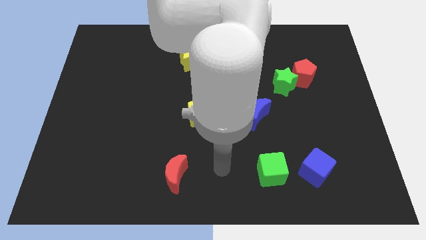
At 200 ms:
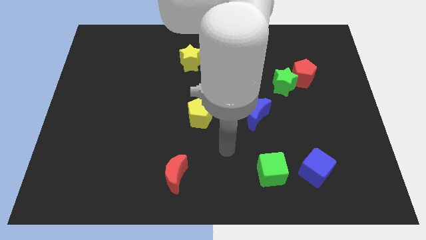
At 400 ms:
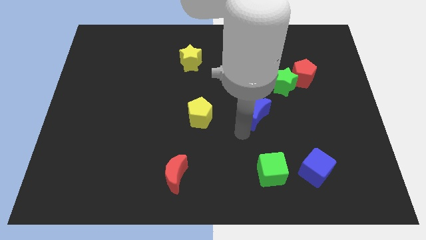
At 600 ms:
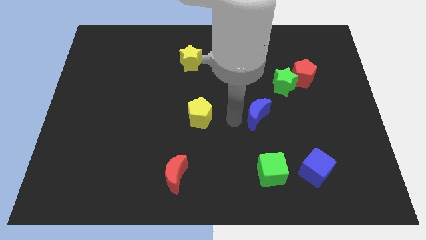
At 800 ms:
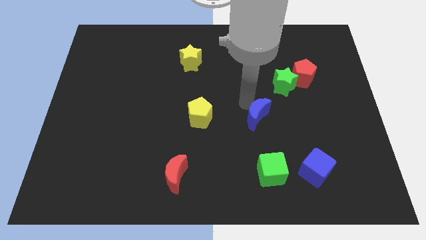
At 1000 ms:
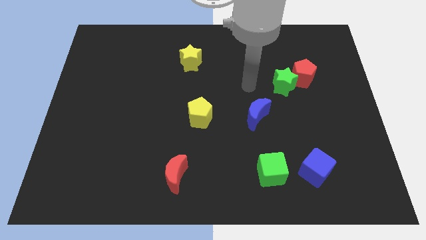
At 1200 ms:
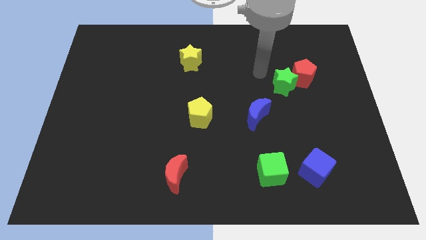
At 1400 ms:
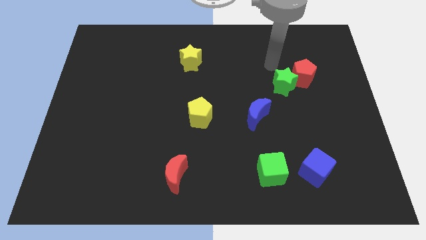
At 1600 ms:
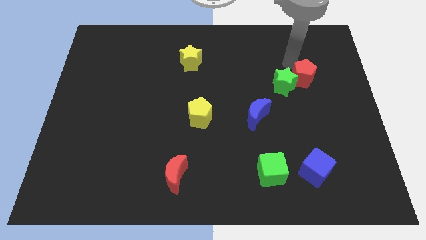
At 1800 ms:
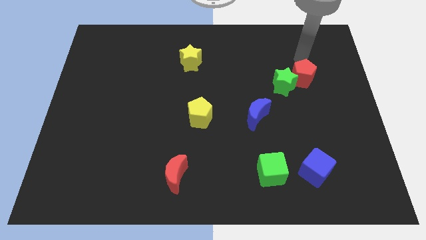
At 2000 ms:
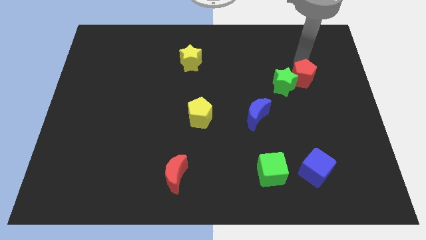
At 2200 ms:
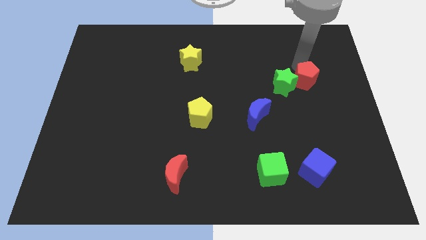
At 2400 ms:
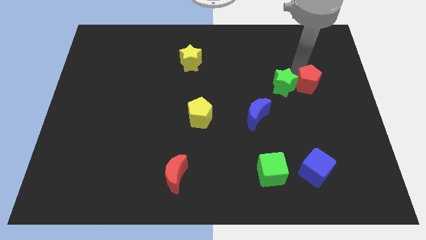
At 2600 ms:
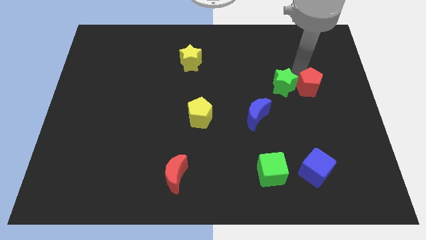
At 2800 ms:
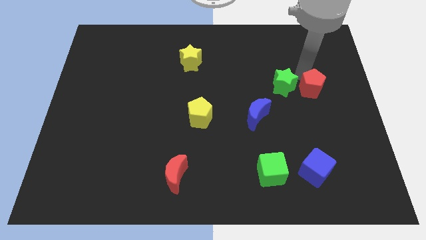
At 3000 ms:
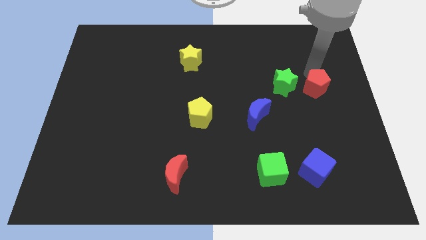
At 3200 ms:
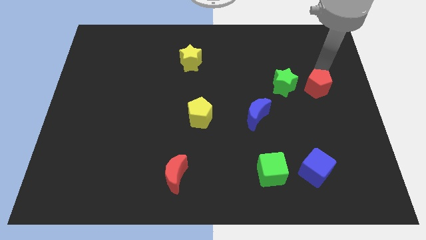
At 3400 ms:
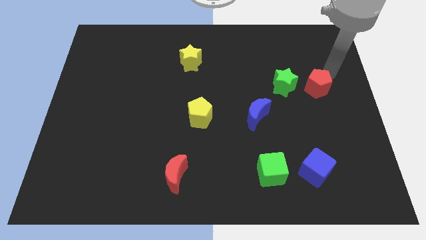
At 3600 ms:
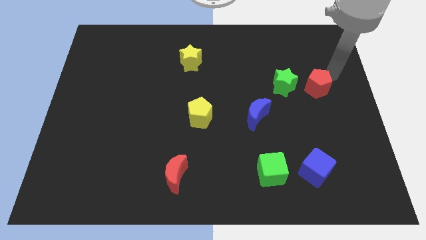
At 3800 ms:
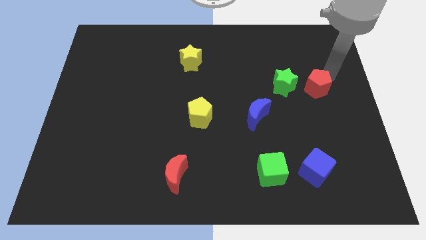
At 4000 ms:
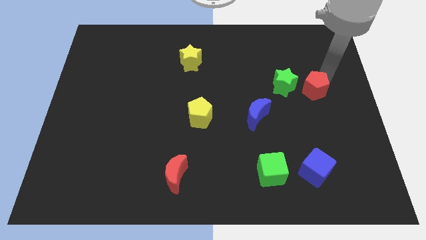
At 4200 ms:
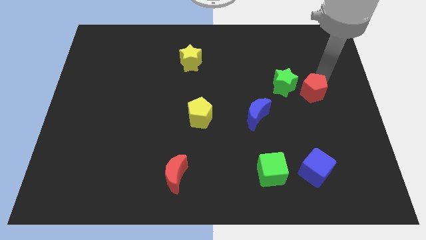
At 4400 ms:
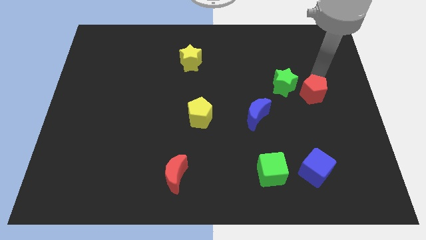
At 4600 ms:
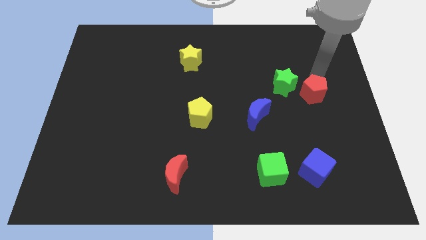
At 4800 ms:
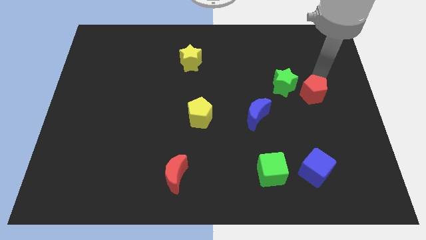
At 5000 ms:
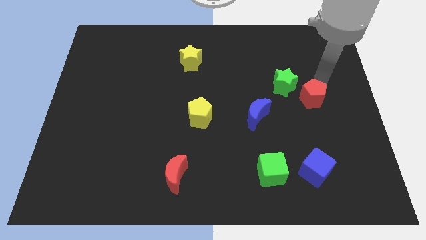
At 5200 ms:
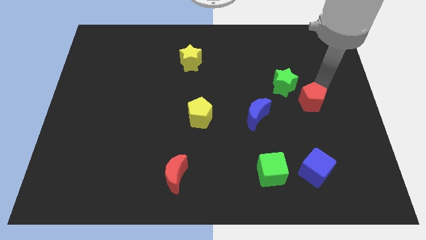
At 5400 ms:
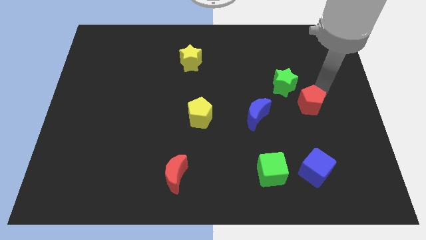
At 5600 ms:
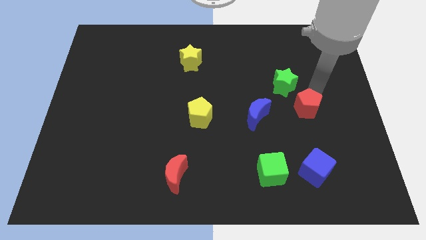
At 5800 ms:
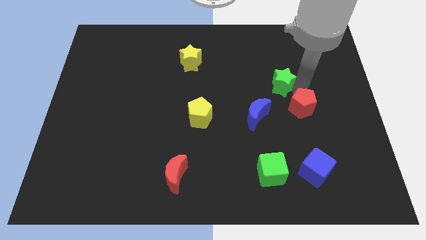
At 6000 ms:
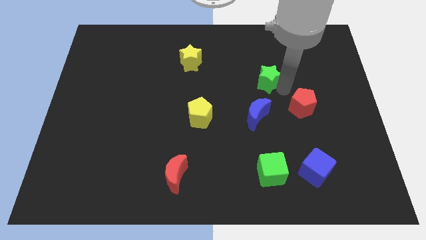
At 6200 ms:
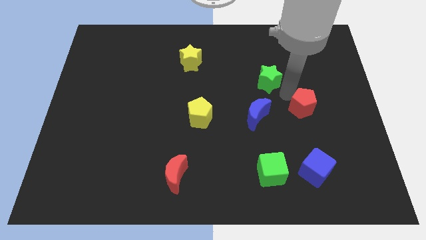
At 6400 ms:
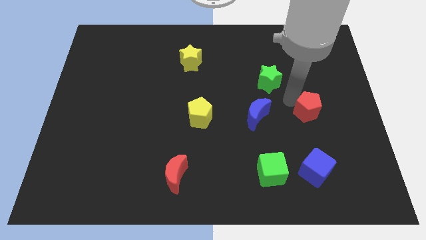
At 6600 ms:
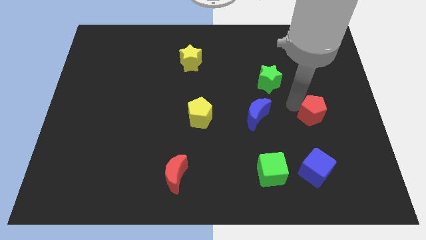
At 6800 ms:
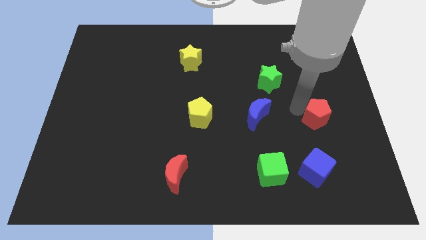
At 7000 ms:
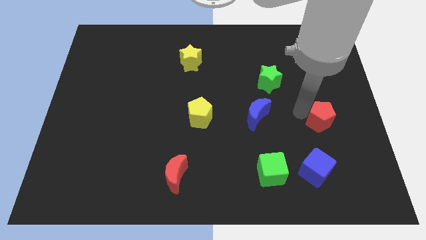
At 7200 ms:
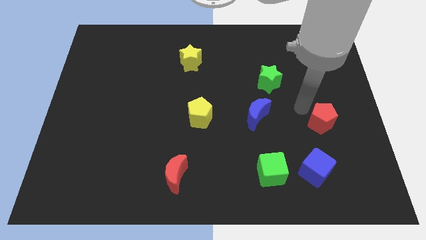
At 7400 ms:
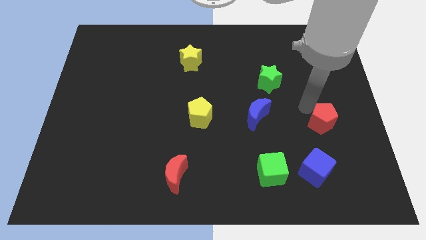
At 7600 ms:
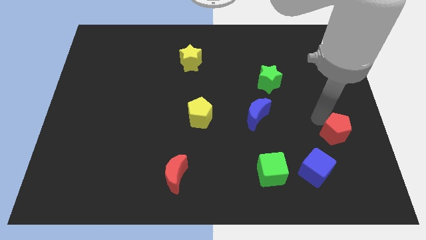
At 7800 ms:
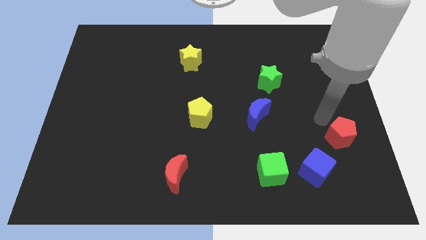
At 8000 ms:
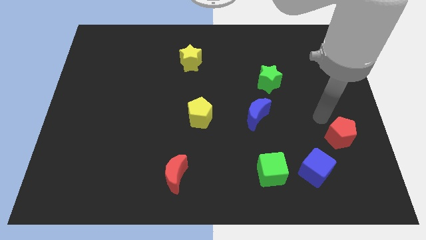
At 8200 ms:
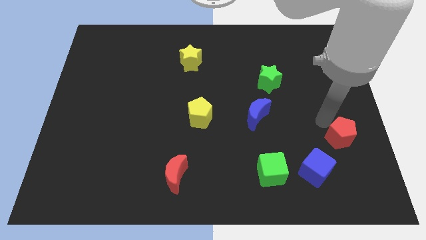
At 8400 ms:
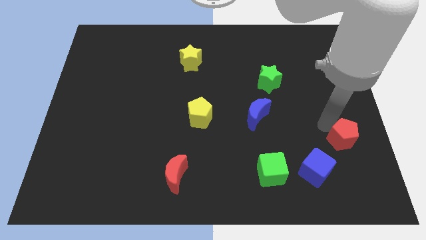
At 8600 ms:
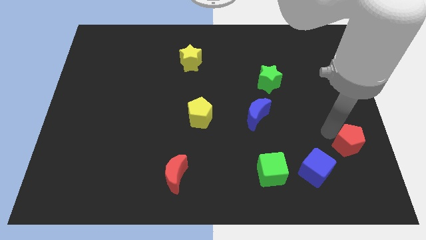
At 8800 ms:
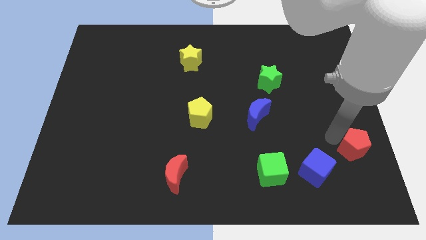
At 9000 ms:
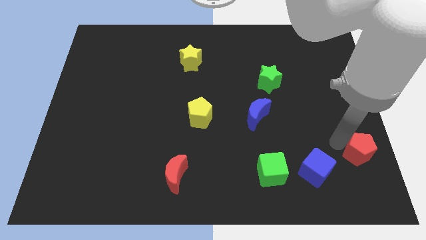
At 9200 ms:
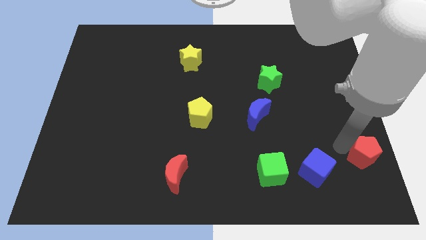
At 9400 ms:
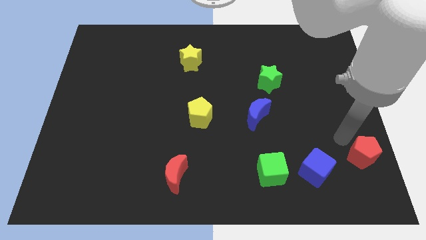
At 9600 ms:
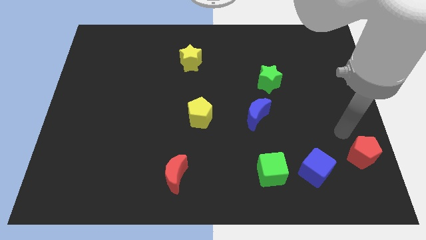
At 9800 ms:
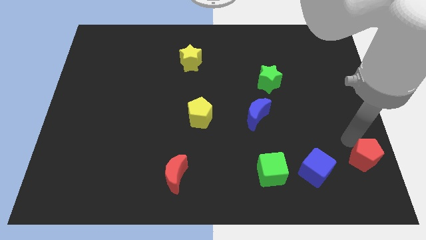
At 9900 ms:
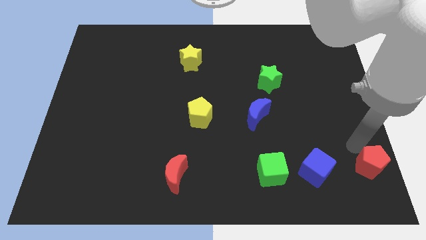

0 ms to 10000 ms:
push the red pentagon to the bottom right of the board

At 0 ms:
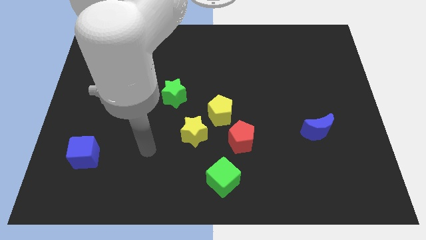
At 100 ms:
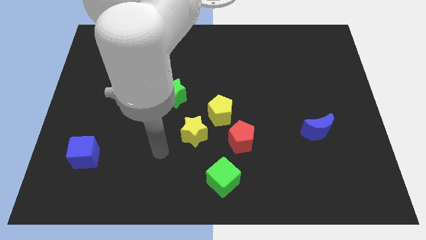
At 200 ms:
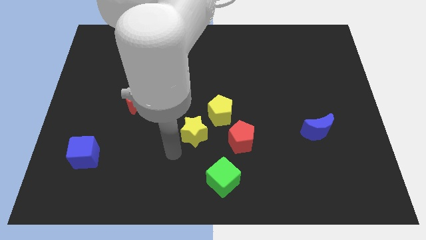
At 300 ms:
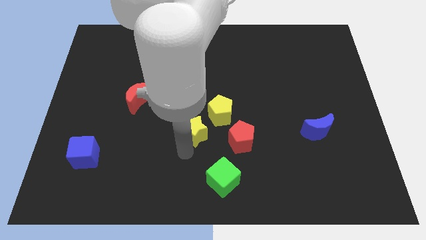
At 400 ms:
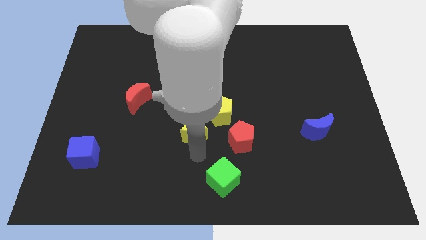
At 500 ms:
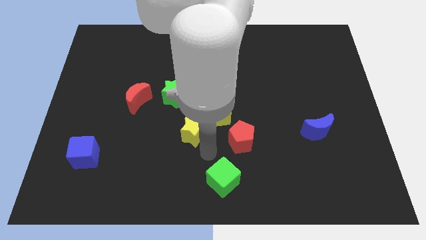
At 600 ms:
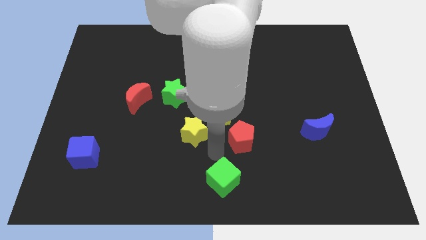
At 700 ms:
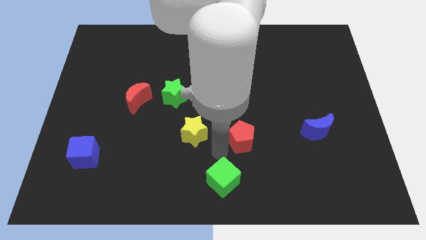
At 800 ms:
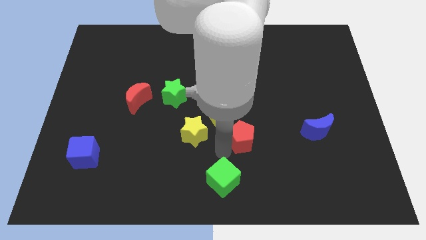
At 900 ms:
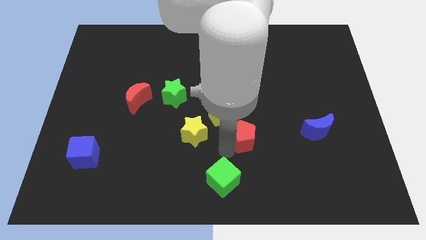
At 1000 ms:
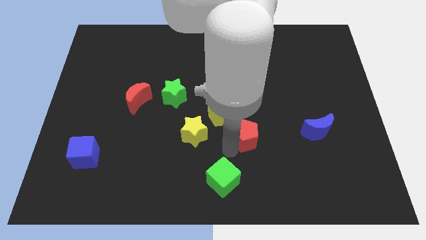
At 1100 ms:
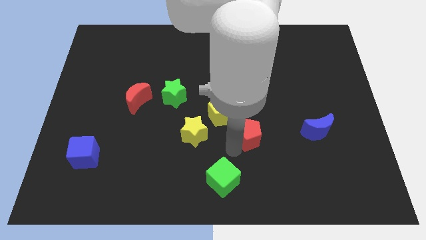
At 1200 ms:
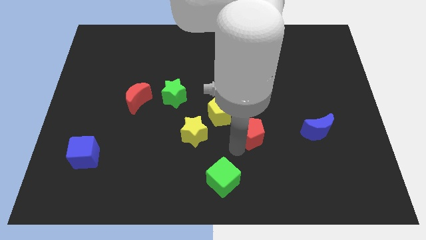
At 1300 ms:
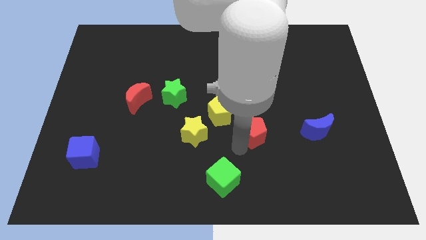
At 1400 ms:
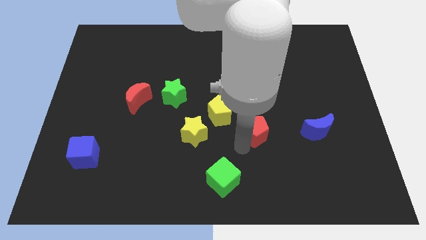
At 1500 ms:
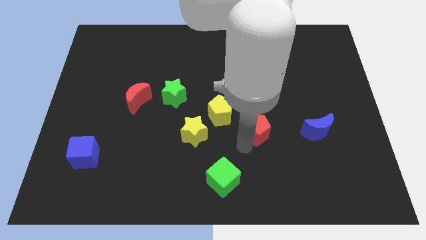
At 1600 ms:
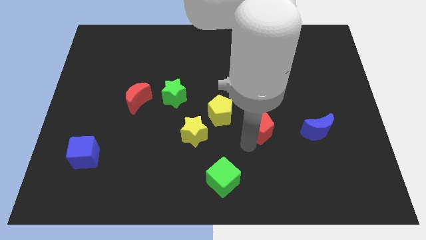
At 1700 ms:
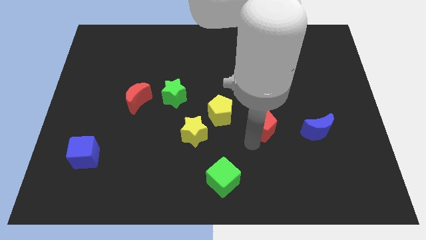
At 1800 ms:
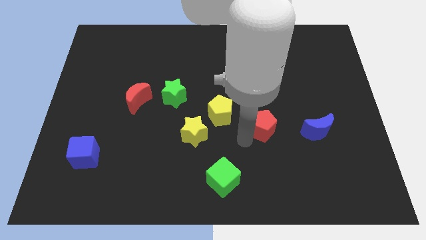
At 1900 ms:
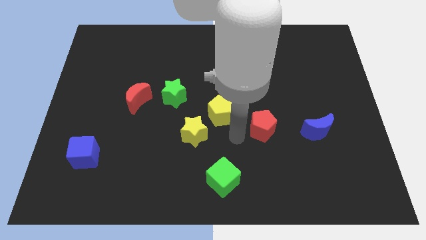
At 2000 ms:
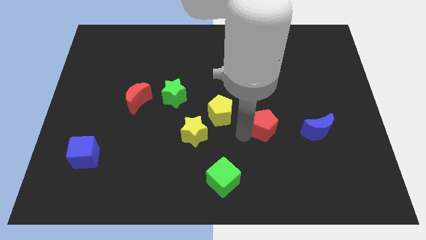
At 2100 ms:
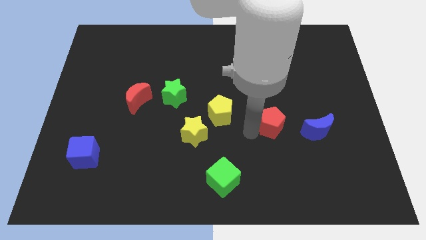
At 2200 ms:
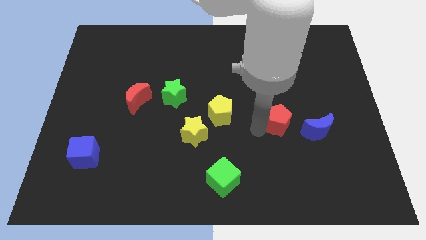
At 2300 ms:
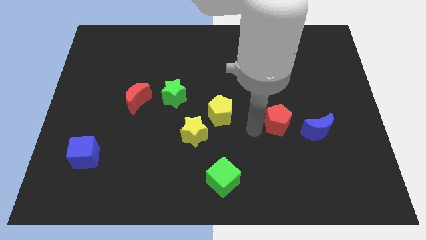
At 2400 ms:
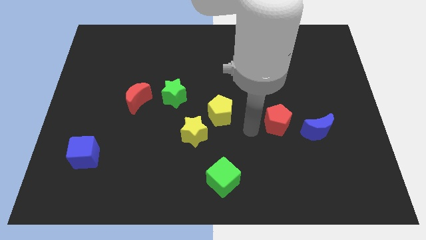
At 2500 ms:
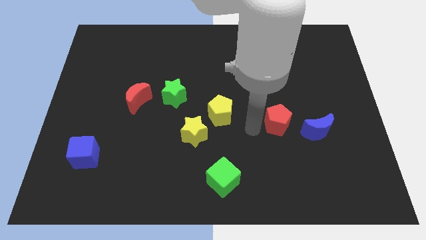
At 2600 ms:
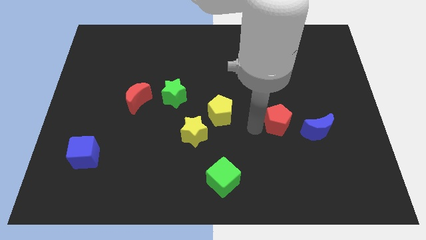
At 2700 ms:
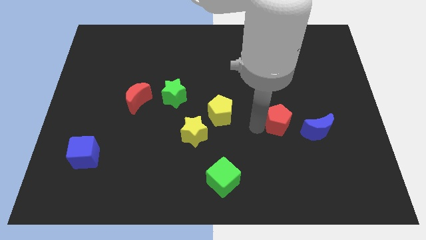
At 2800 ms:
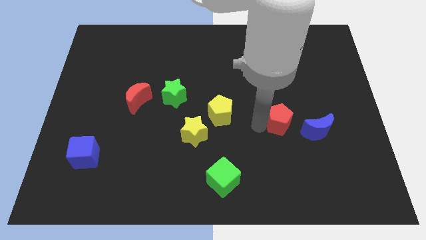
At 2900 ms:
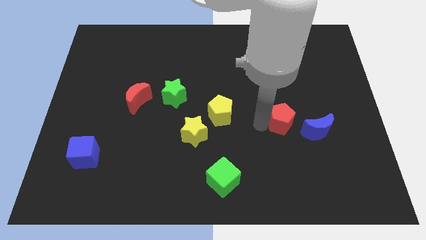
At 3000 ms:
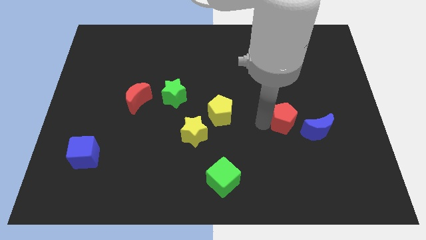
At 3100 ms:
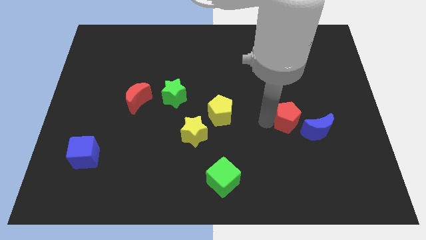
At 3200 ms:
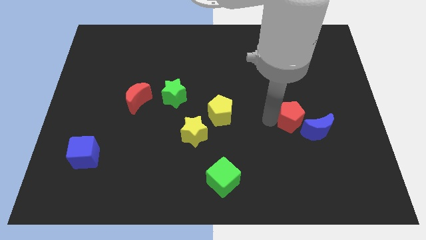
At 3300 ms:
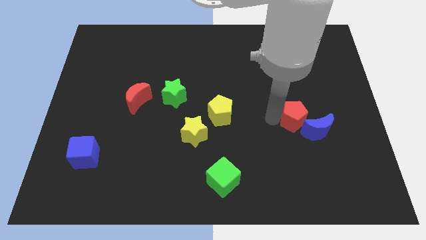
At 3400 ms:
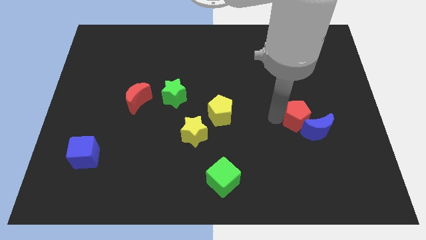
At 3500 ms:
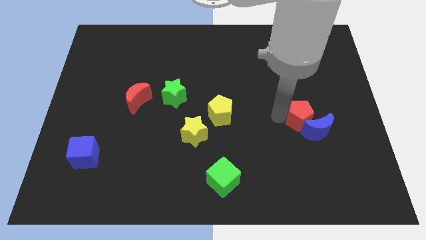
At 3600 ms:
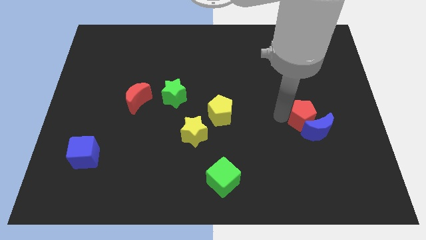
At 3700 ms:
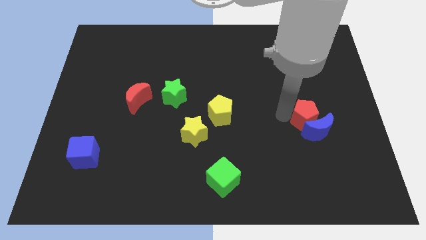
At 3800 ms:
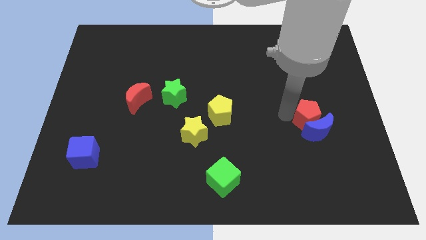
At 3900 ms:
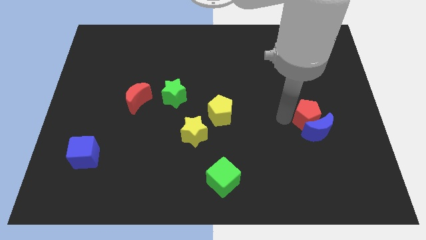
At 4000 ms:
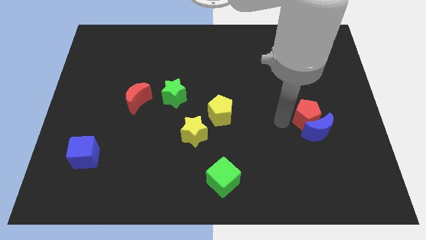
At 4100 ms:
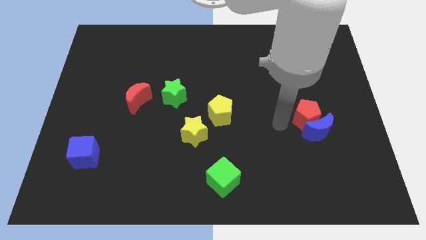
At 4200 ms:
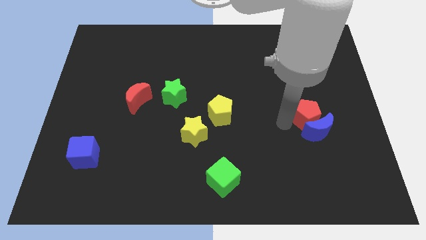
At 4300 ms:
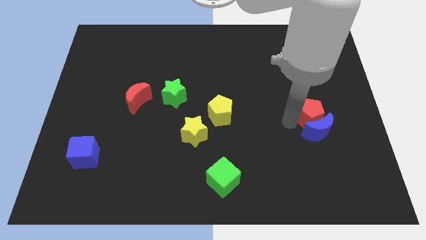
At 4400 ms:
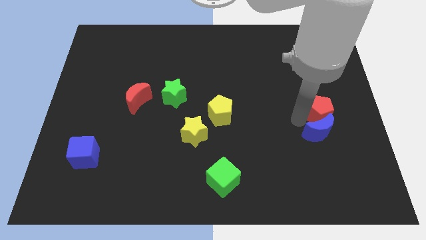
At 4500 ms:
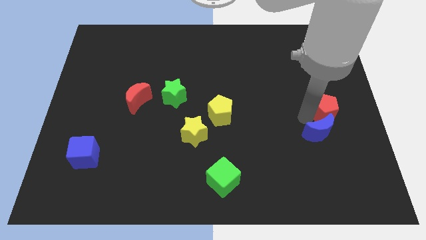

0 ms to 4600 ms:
put the red pentagon to the right side
